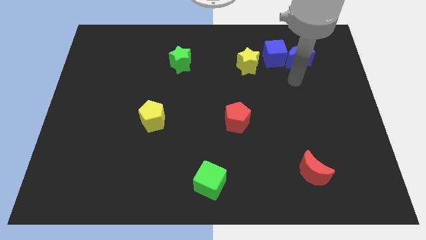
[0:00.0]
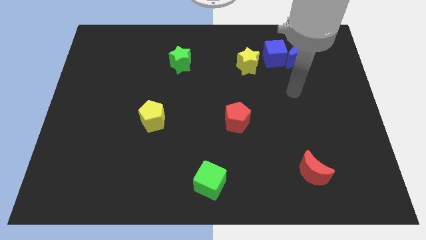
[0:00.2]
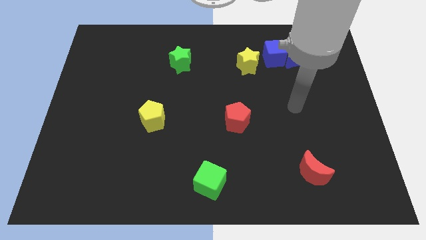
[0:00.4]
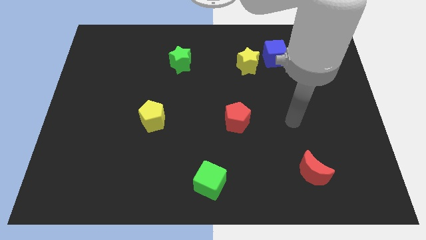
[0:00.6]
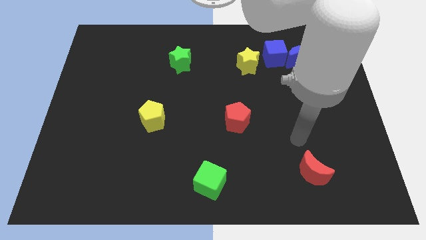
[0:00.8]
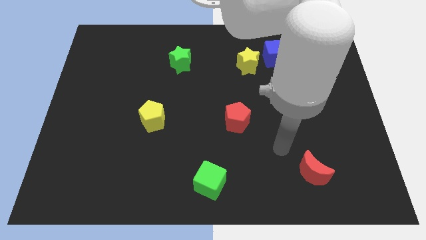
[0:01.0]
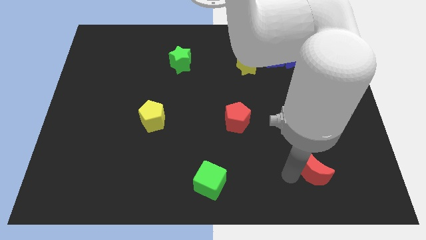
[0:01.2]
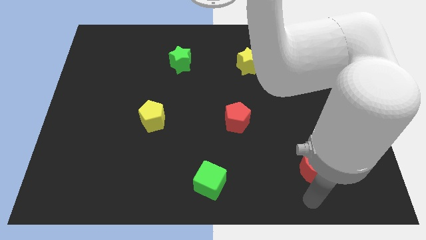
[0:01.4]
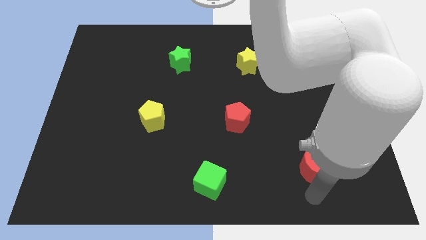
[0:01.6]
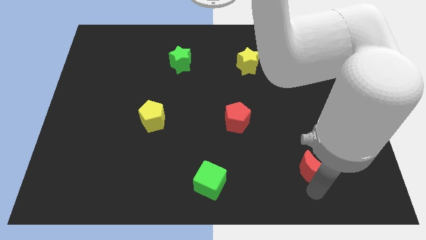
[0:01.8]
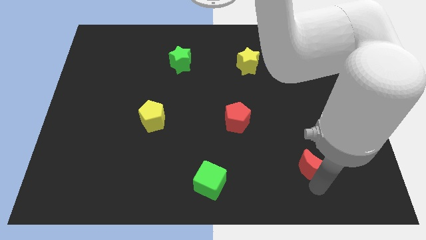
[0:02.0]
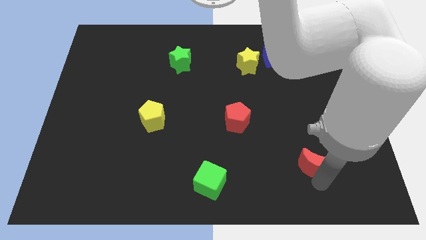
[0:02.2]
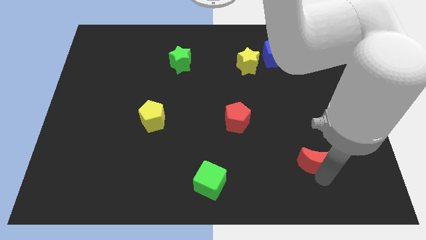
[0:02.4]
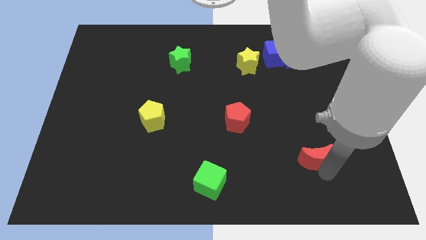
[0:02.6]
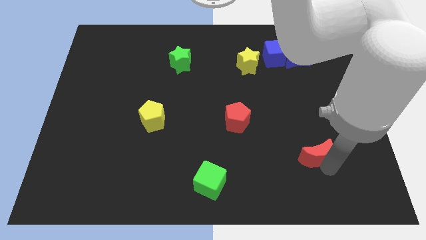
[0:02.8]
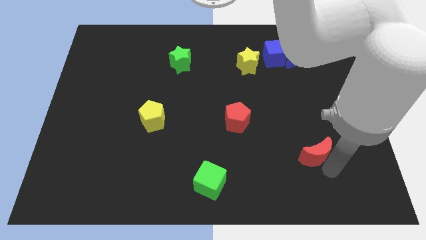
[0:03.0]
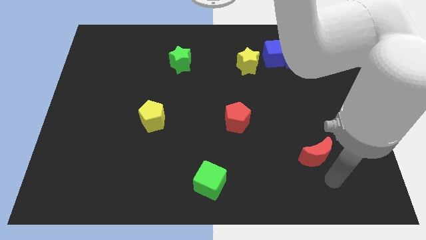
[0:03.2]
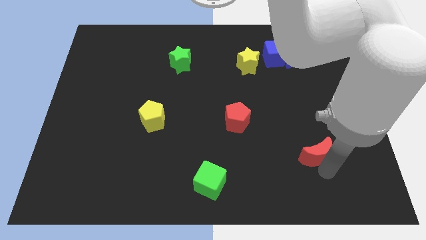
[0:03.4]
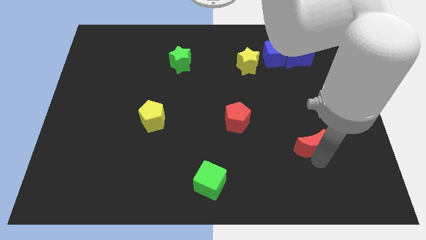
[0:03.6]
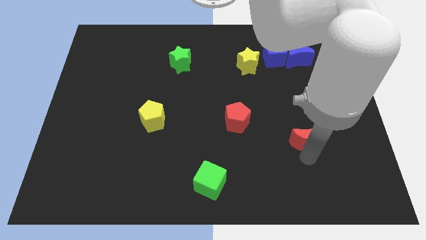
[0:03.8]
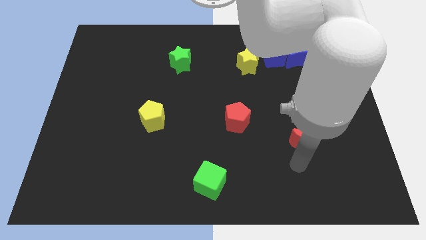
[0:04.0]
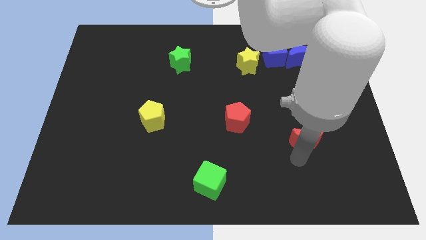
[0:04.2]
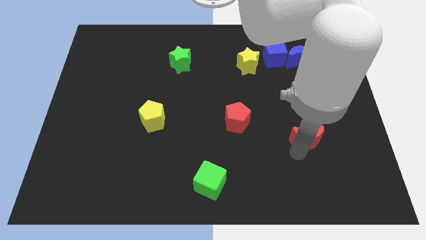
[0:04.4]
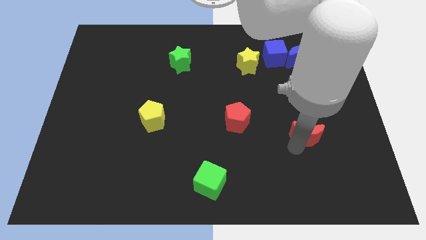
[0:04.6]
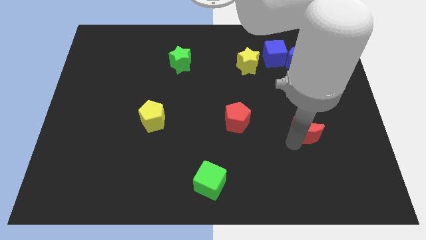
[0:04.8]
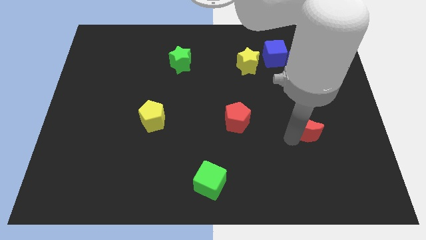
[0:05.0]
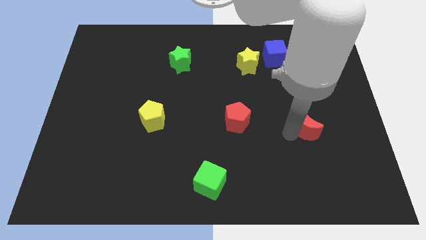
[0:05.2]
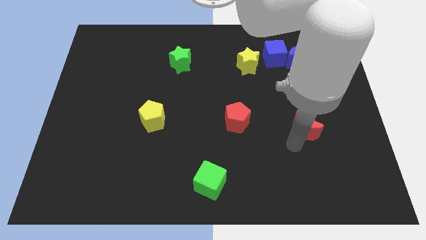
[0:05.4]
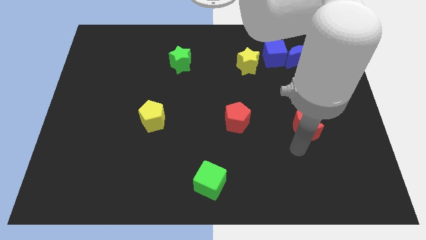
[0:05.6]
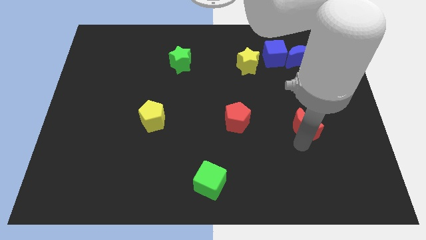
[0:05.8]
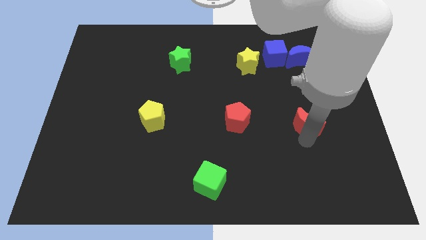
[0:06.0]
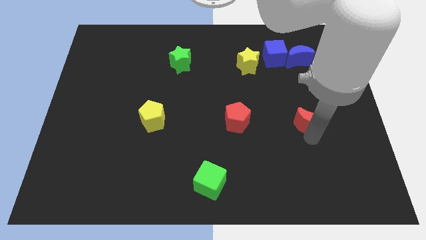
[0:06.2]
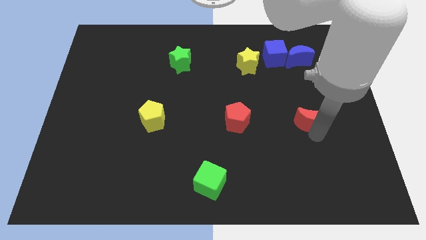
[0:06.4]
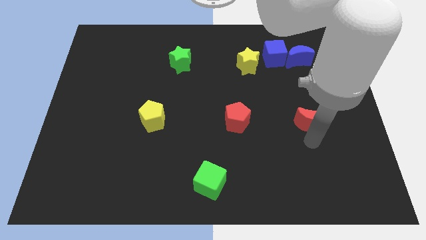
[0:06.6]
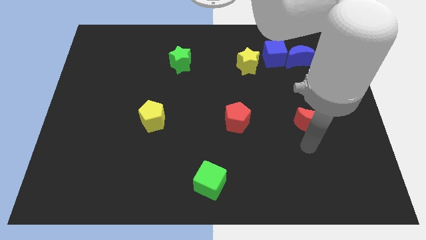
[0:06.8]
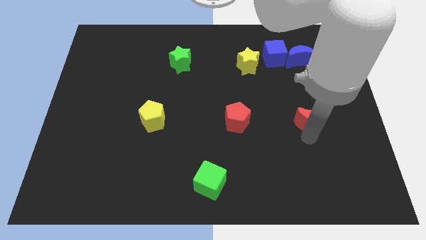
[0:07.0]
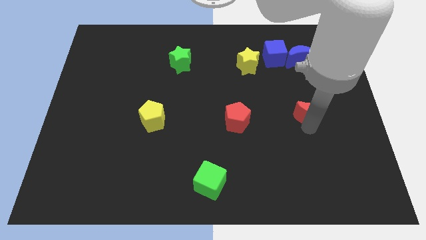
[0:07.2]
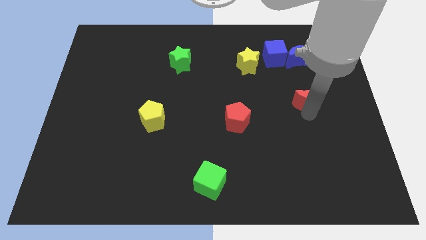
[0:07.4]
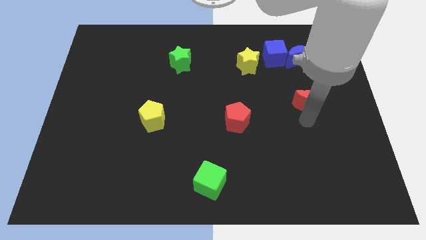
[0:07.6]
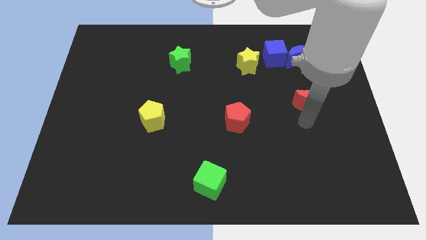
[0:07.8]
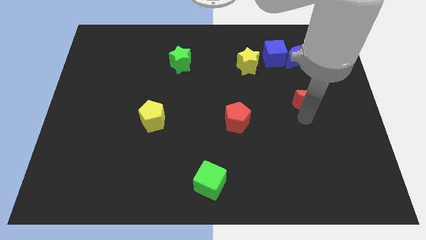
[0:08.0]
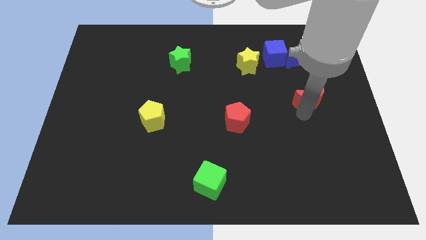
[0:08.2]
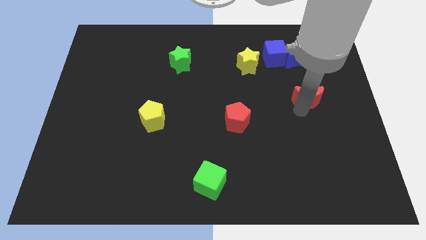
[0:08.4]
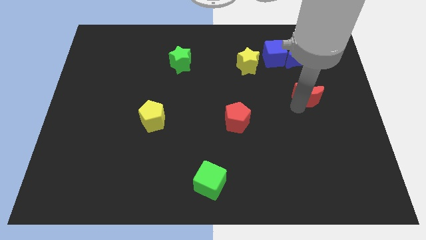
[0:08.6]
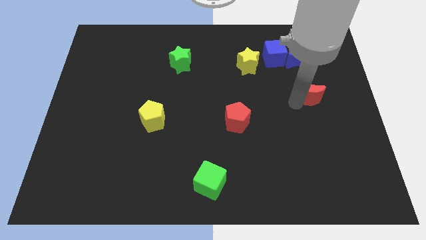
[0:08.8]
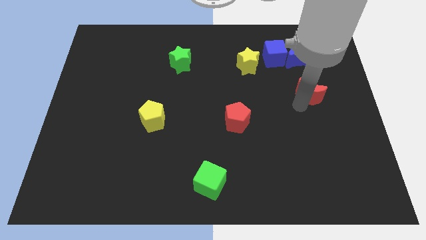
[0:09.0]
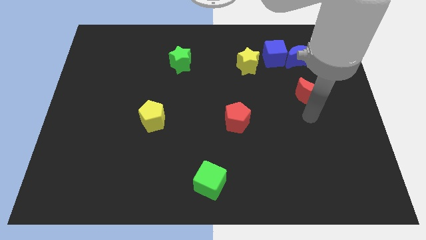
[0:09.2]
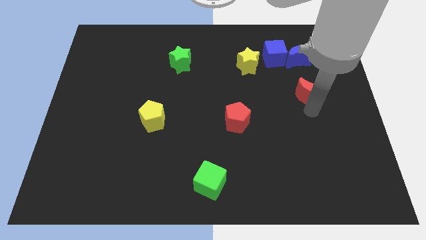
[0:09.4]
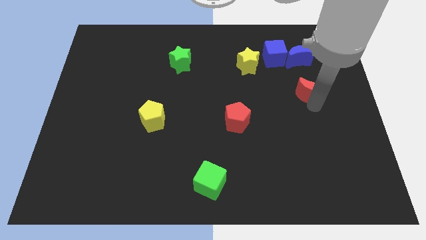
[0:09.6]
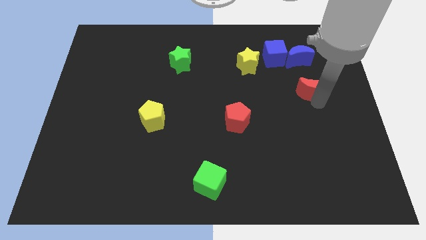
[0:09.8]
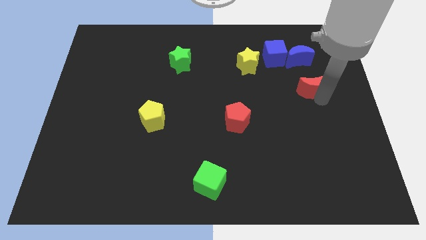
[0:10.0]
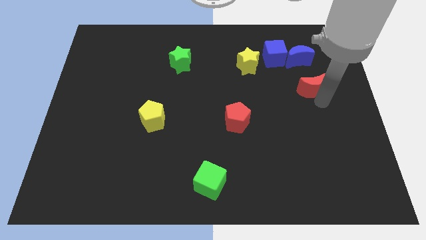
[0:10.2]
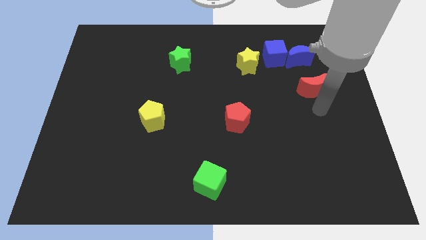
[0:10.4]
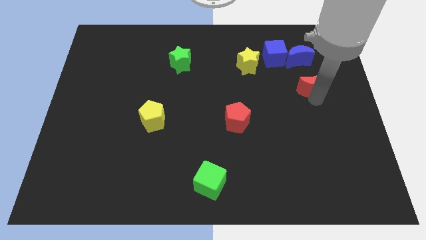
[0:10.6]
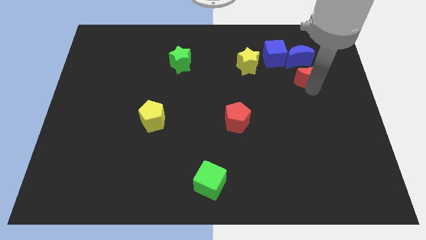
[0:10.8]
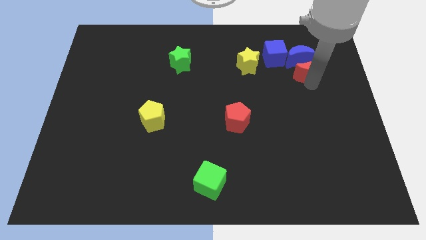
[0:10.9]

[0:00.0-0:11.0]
put the red moon next to the blue moon

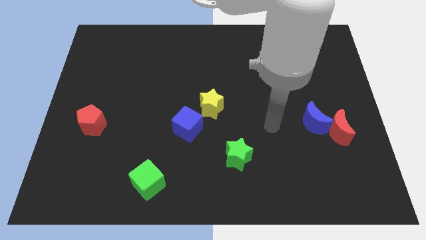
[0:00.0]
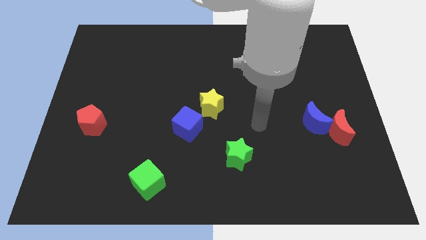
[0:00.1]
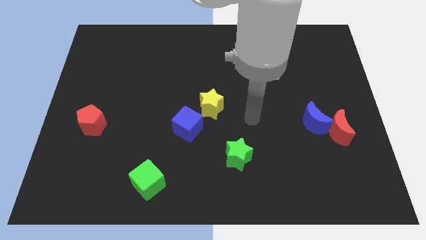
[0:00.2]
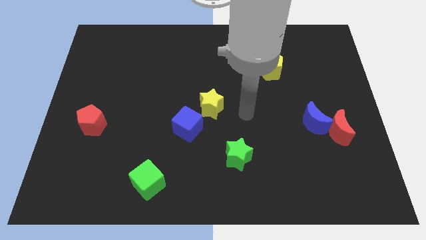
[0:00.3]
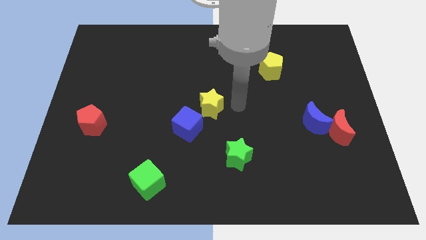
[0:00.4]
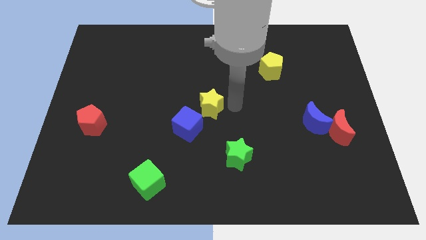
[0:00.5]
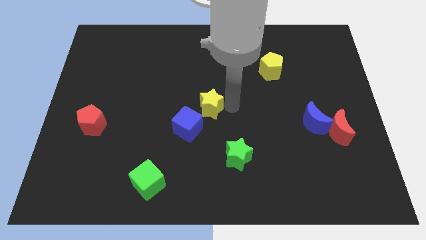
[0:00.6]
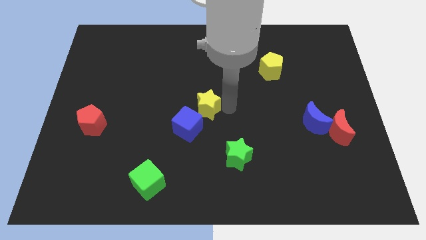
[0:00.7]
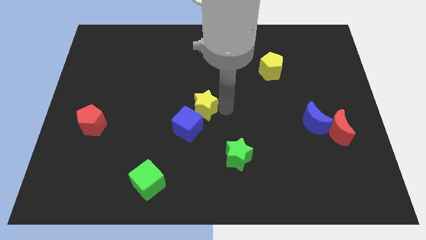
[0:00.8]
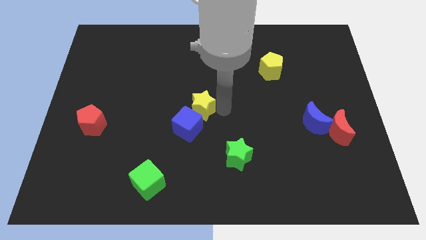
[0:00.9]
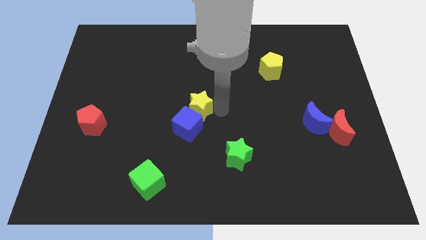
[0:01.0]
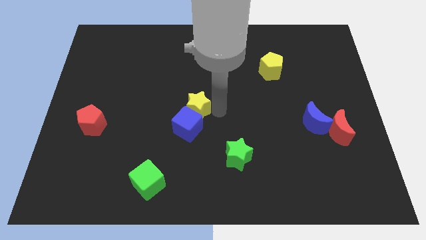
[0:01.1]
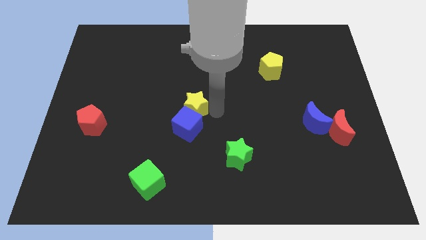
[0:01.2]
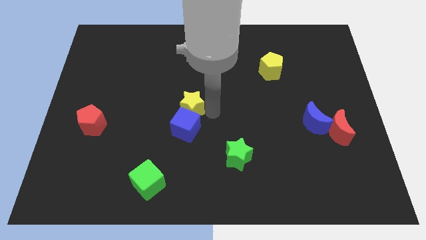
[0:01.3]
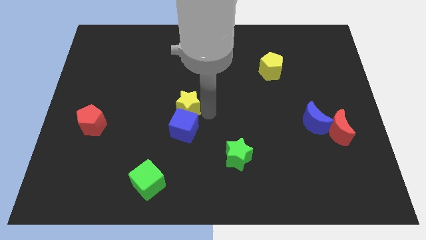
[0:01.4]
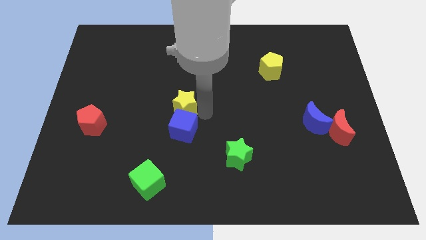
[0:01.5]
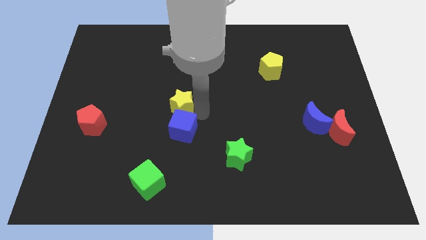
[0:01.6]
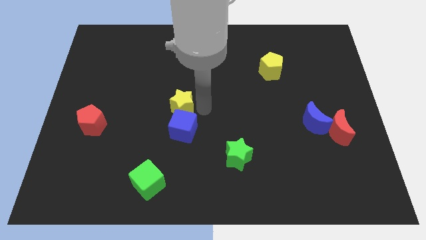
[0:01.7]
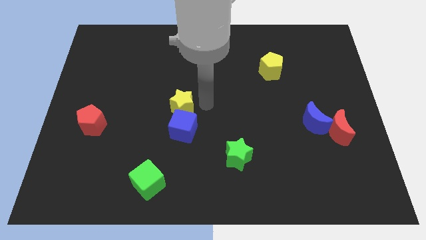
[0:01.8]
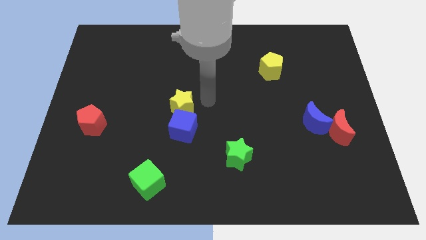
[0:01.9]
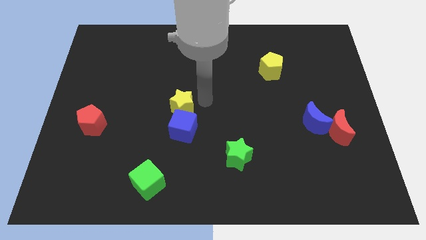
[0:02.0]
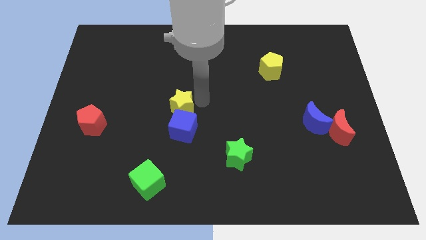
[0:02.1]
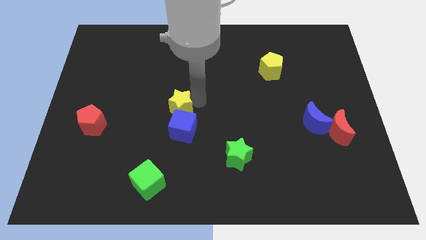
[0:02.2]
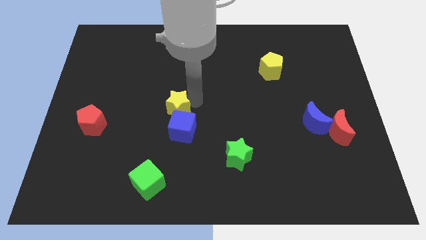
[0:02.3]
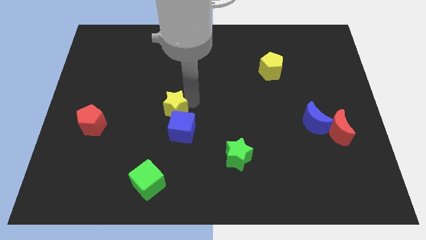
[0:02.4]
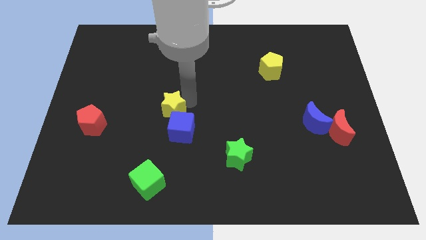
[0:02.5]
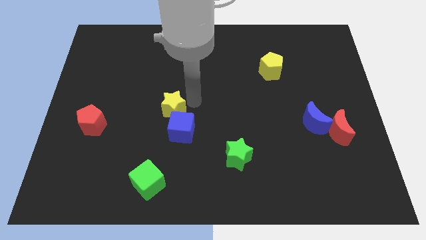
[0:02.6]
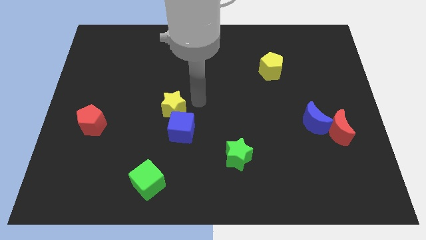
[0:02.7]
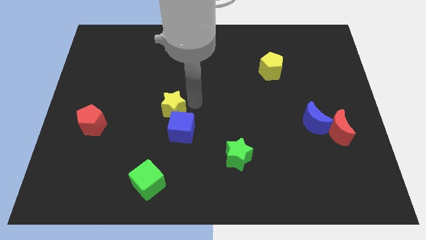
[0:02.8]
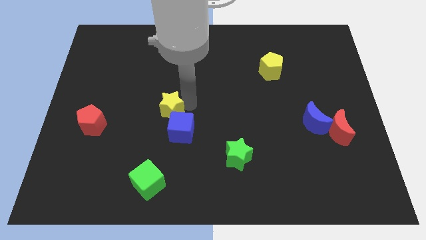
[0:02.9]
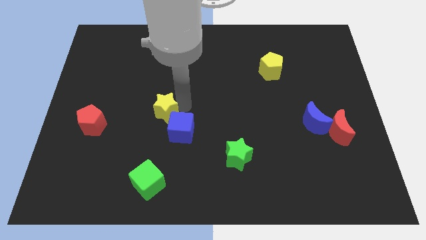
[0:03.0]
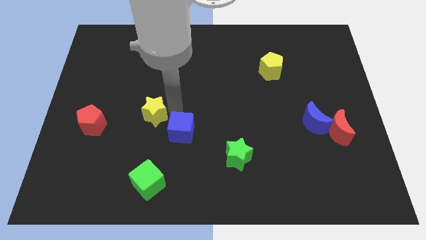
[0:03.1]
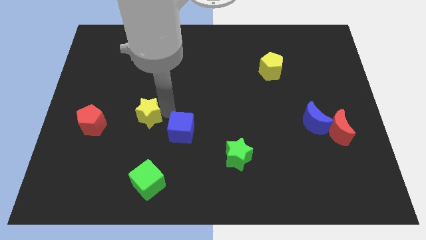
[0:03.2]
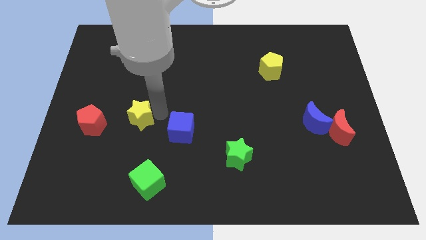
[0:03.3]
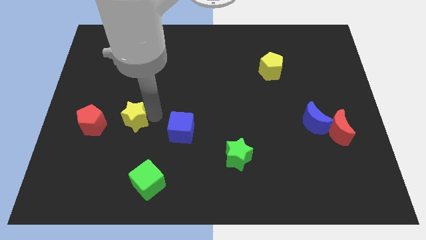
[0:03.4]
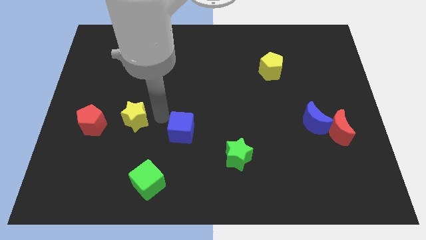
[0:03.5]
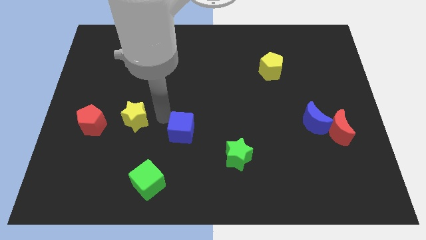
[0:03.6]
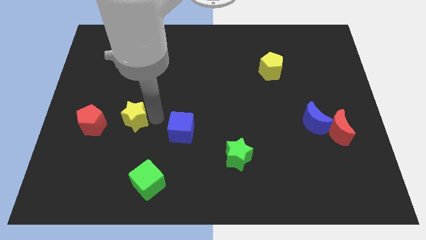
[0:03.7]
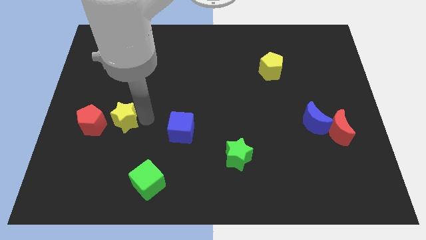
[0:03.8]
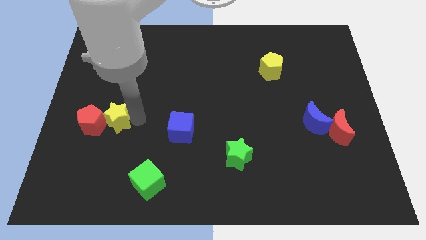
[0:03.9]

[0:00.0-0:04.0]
slide the yellow star next to the red pentagon
